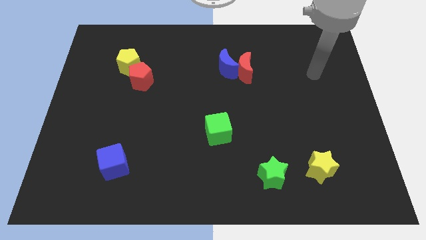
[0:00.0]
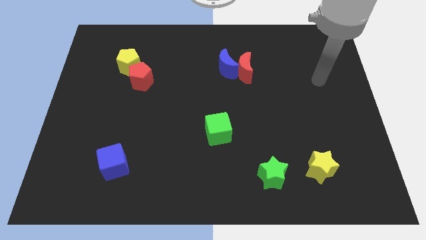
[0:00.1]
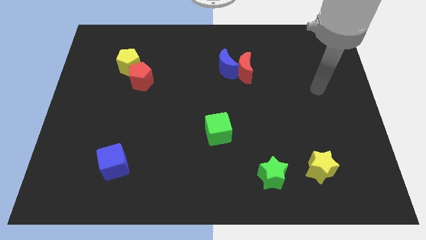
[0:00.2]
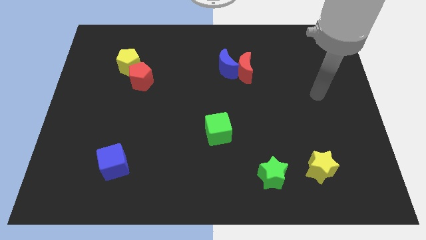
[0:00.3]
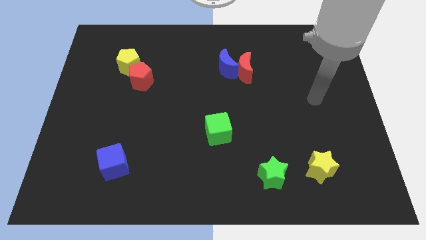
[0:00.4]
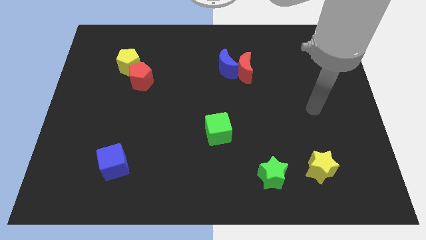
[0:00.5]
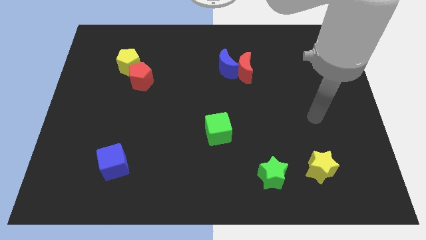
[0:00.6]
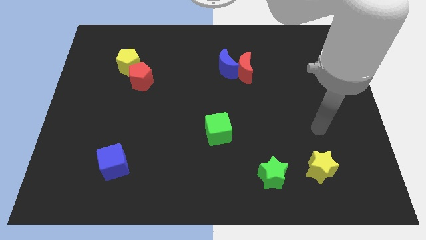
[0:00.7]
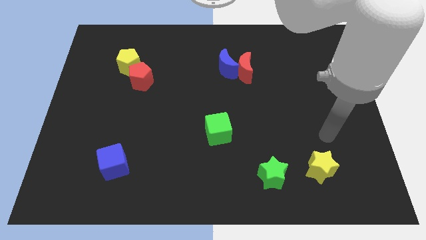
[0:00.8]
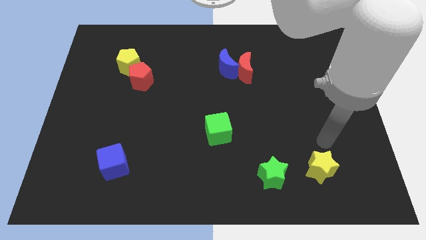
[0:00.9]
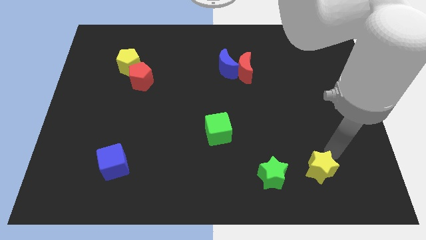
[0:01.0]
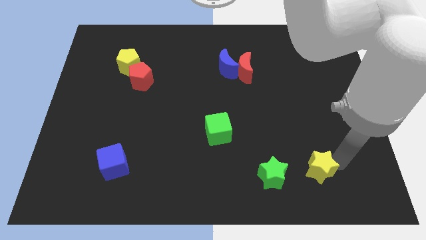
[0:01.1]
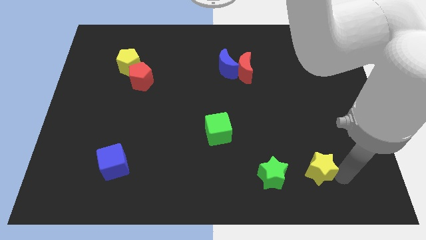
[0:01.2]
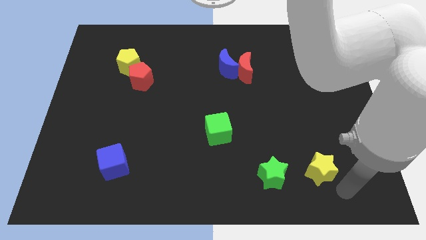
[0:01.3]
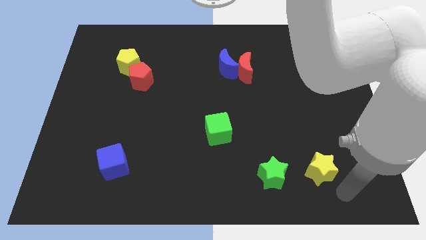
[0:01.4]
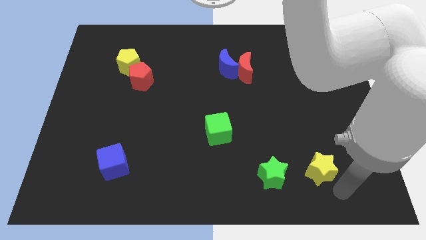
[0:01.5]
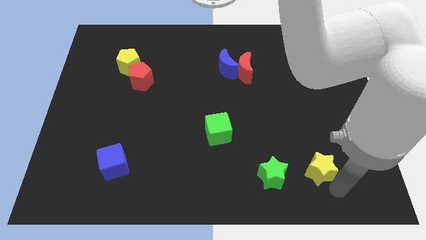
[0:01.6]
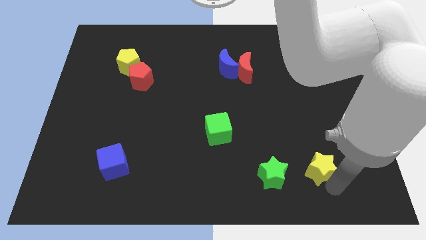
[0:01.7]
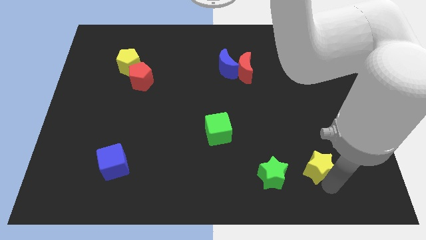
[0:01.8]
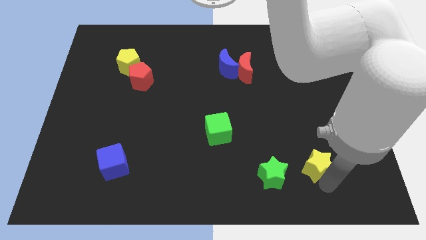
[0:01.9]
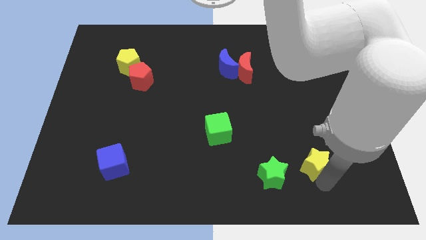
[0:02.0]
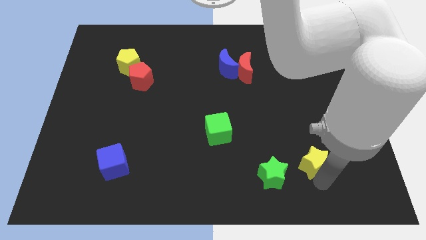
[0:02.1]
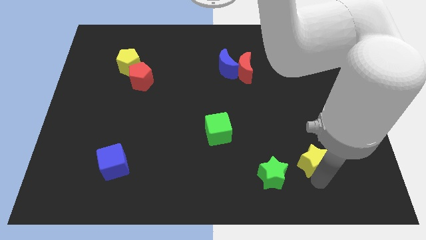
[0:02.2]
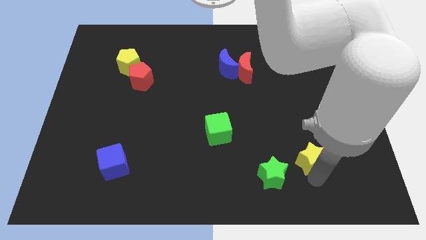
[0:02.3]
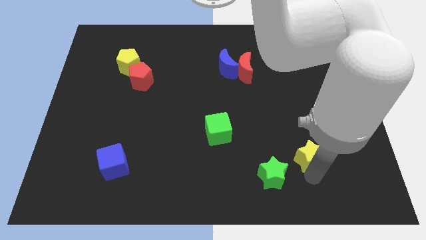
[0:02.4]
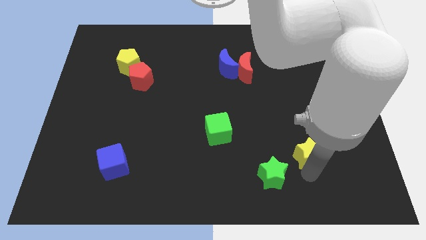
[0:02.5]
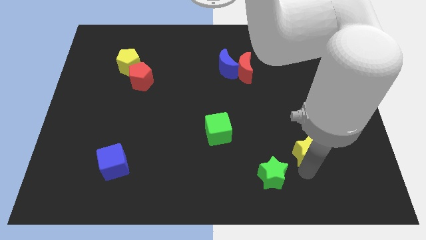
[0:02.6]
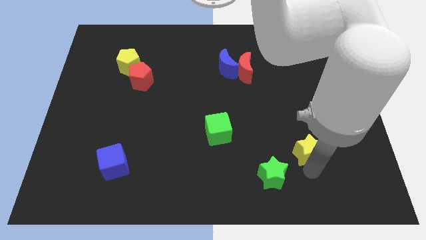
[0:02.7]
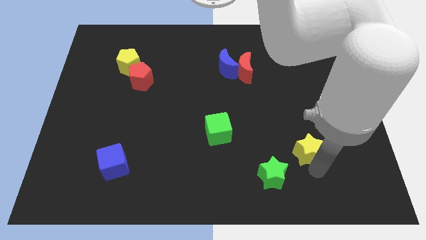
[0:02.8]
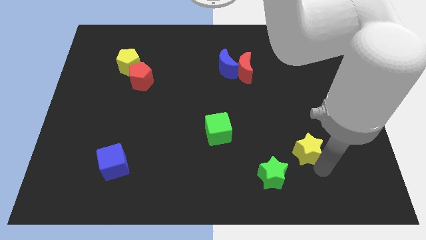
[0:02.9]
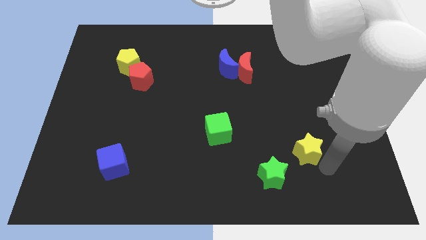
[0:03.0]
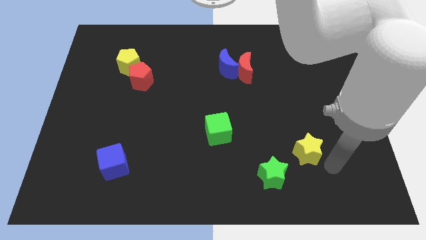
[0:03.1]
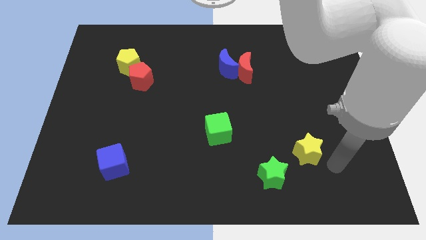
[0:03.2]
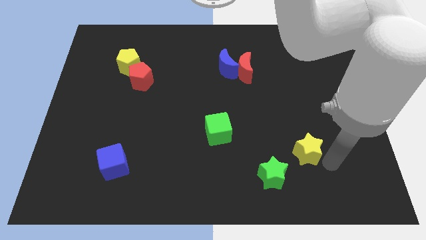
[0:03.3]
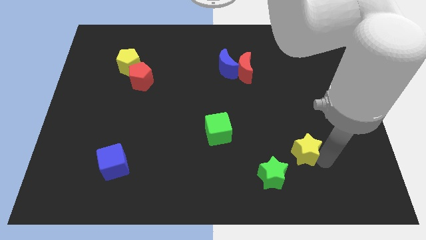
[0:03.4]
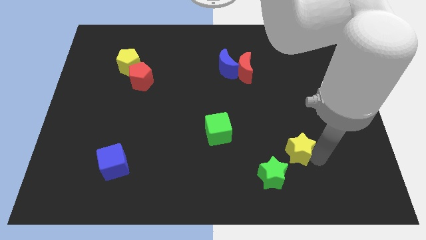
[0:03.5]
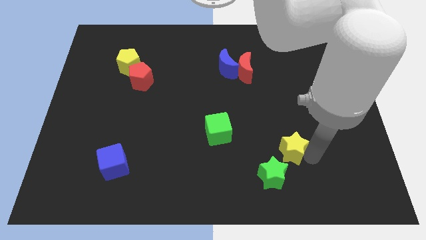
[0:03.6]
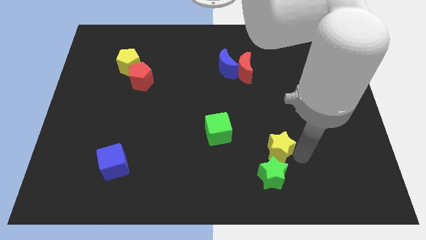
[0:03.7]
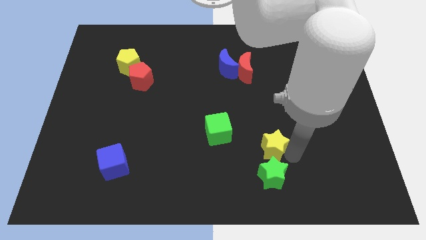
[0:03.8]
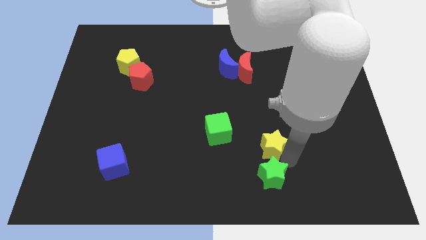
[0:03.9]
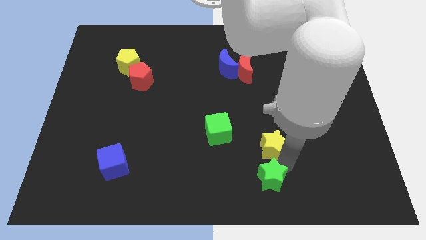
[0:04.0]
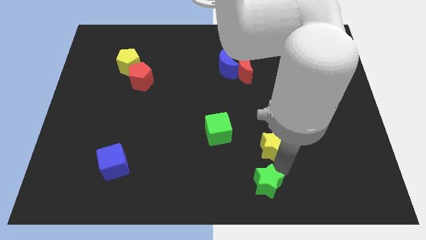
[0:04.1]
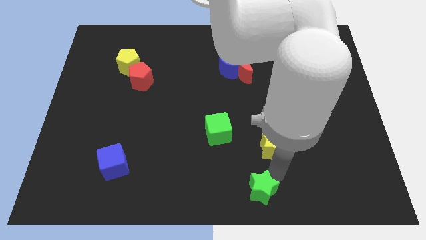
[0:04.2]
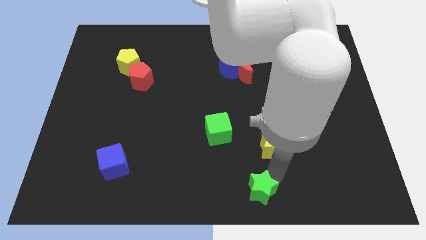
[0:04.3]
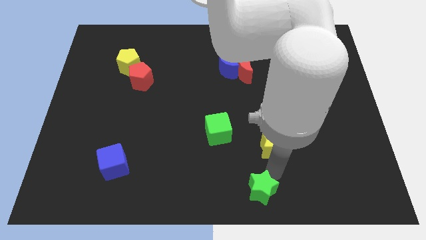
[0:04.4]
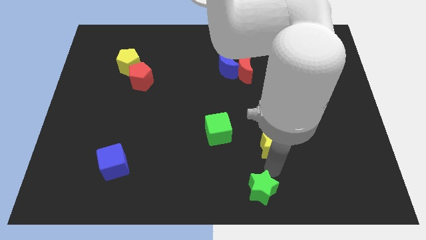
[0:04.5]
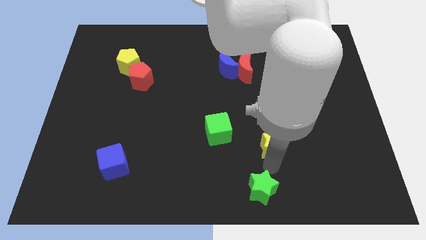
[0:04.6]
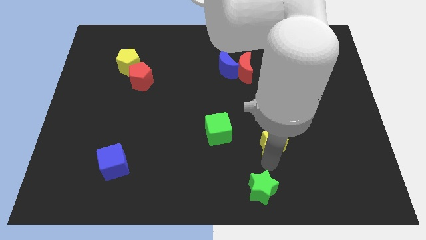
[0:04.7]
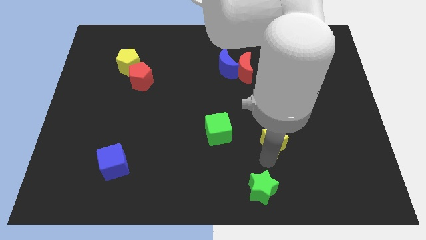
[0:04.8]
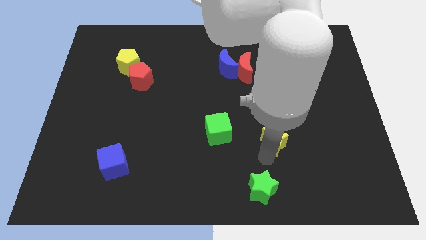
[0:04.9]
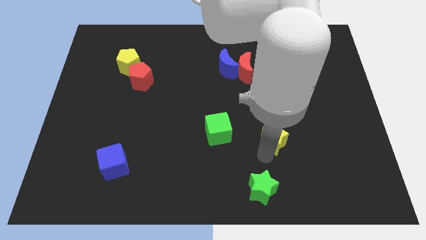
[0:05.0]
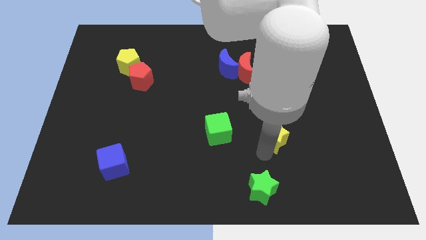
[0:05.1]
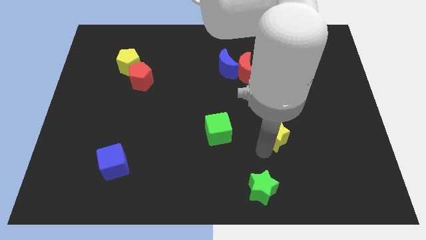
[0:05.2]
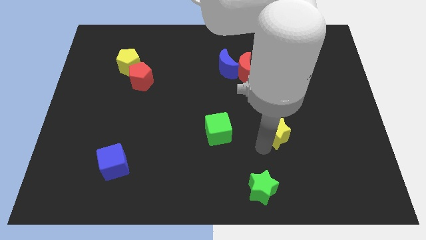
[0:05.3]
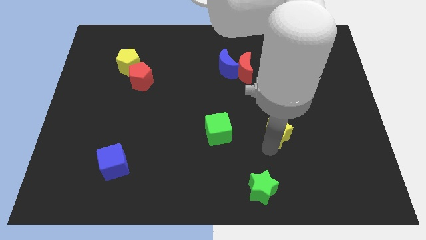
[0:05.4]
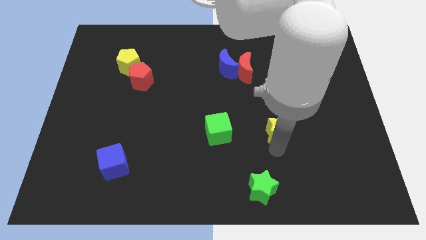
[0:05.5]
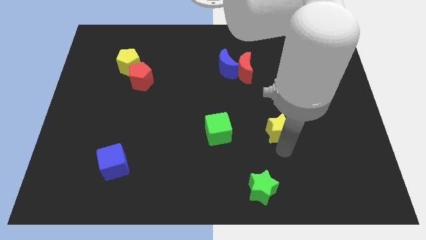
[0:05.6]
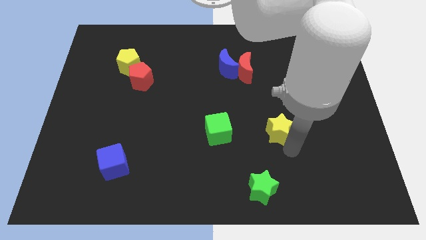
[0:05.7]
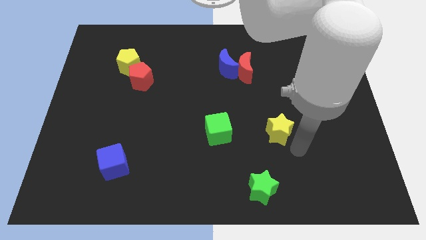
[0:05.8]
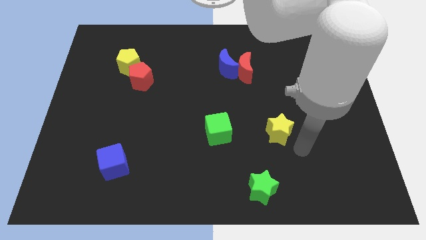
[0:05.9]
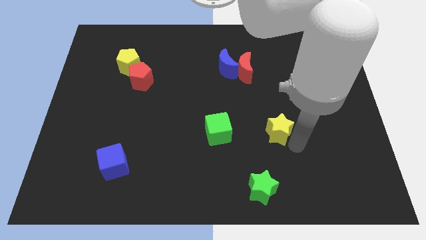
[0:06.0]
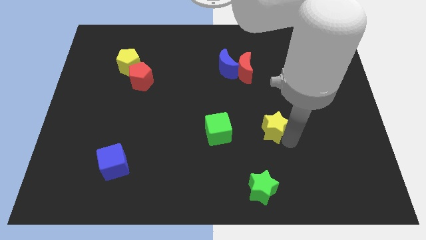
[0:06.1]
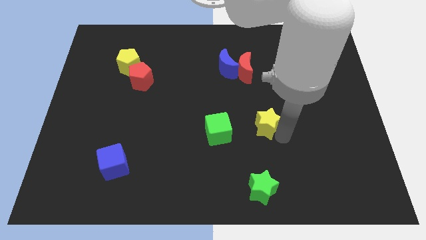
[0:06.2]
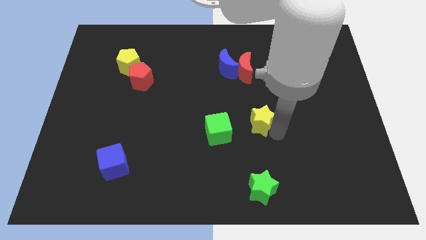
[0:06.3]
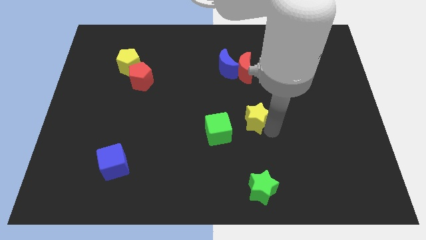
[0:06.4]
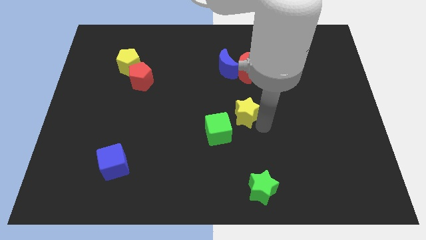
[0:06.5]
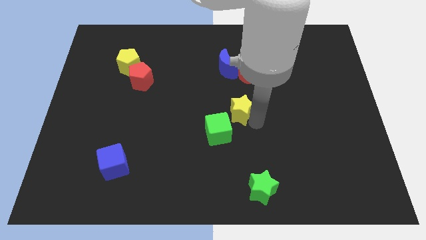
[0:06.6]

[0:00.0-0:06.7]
slide the yellow star to the bottom of the blue moon

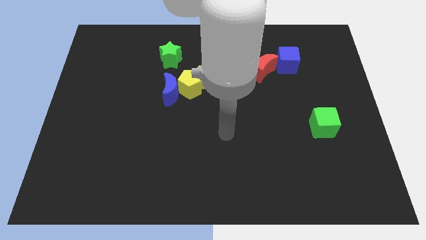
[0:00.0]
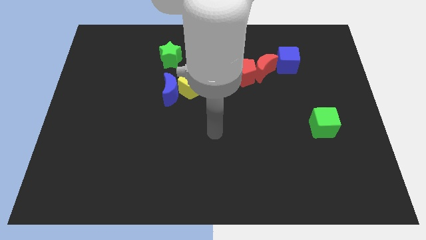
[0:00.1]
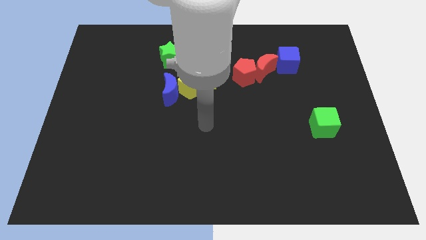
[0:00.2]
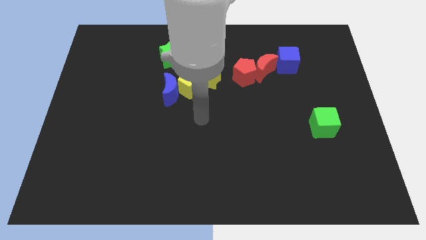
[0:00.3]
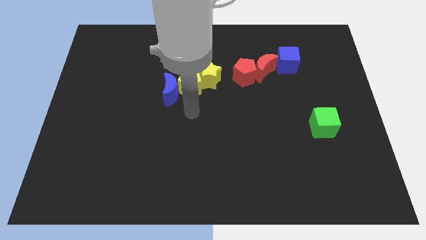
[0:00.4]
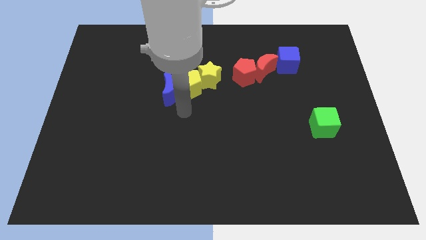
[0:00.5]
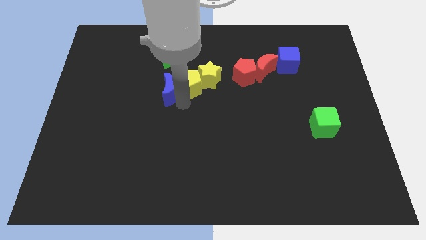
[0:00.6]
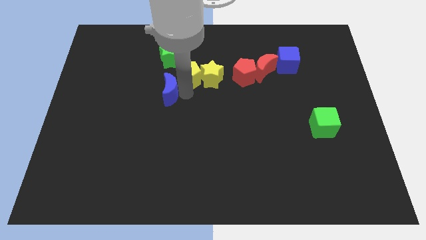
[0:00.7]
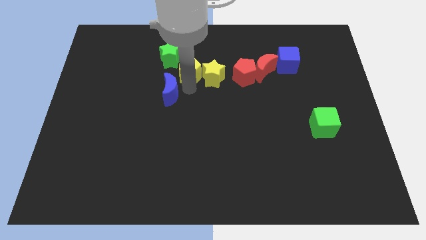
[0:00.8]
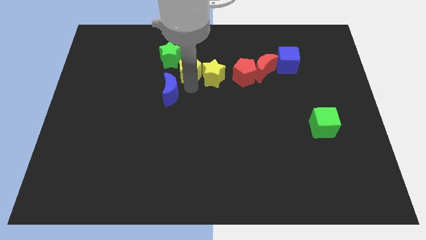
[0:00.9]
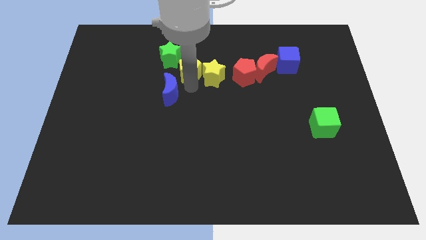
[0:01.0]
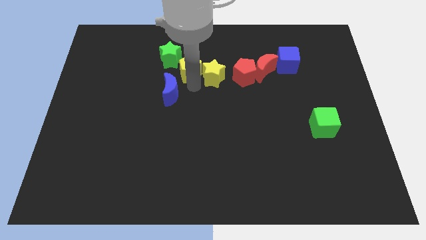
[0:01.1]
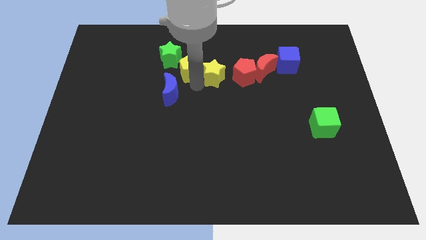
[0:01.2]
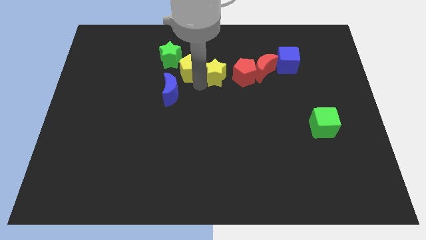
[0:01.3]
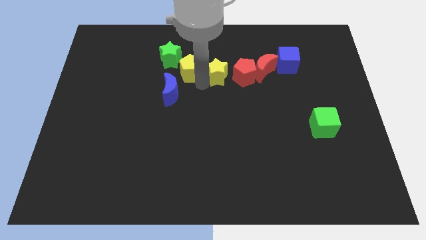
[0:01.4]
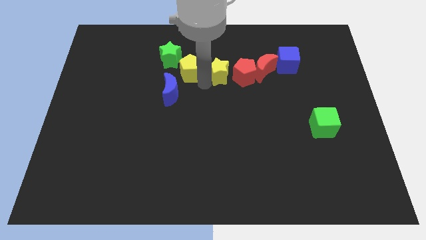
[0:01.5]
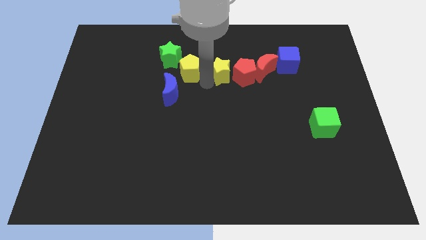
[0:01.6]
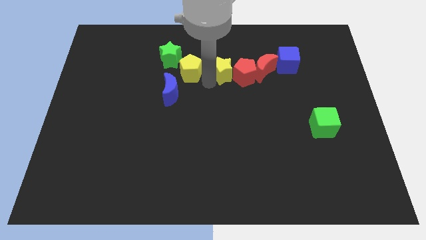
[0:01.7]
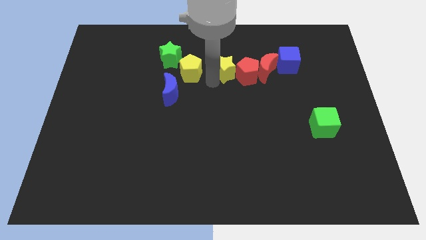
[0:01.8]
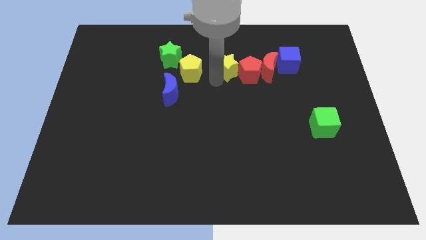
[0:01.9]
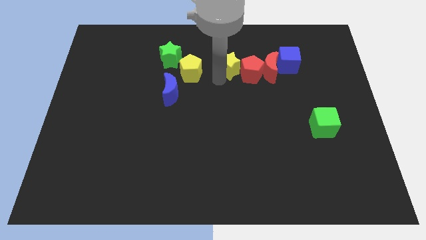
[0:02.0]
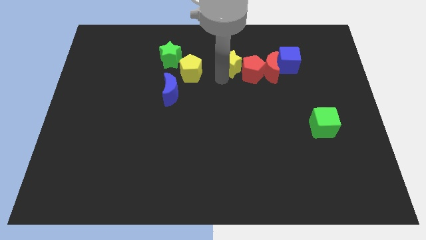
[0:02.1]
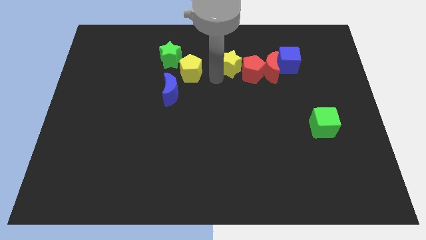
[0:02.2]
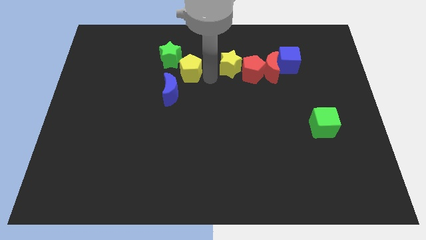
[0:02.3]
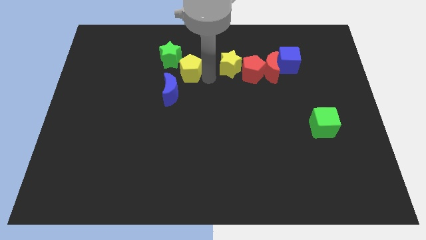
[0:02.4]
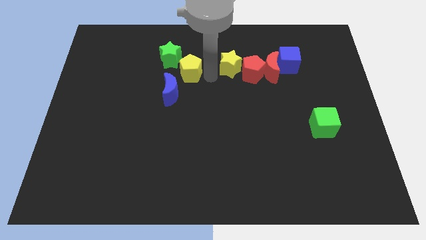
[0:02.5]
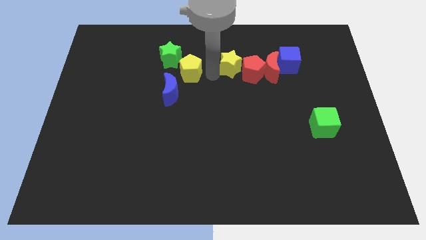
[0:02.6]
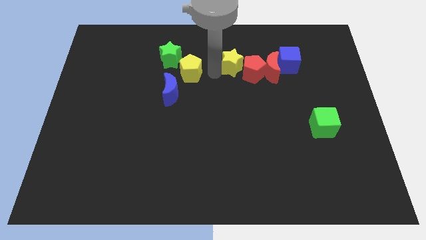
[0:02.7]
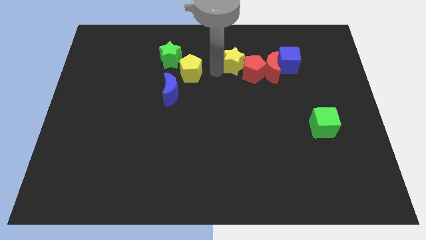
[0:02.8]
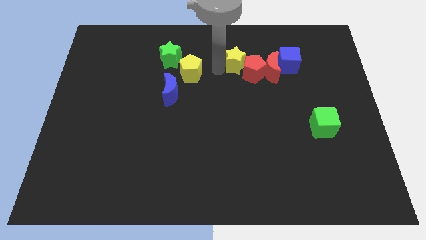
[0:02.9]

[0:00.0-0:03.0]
slide the yellow star diagonally up and to the left of the red moon
